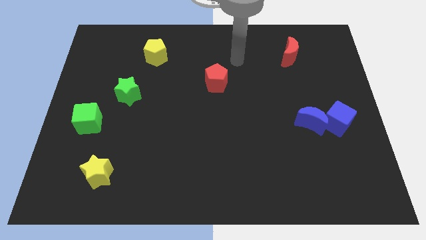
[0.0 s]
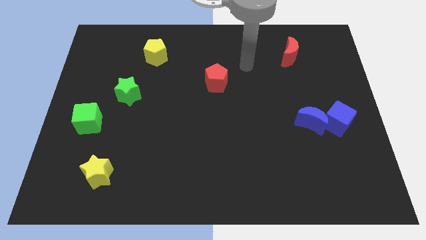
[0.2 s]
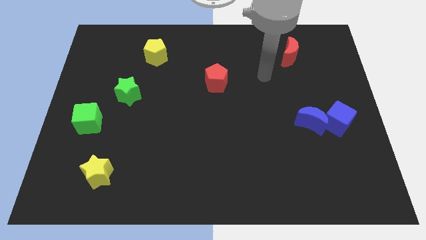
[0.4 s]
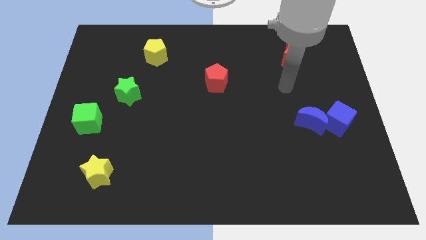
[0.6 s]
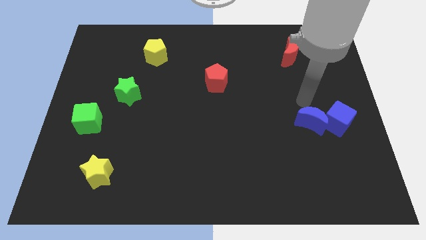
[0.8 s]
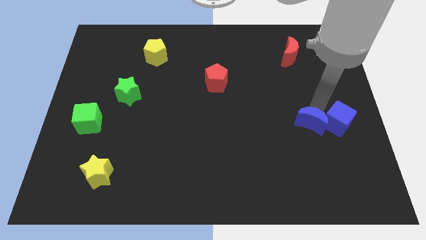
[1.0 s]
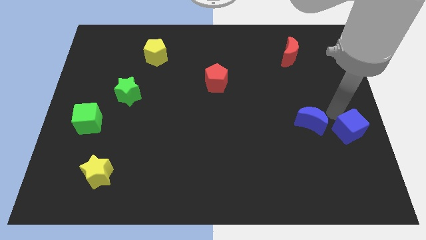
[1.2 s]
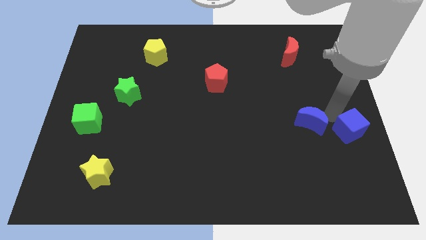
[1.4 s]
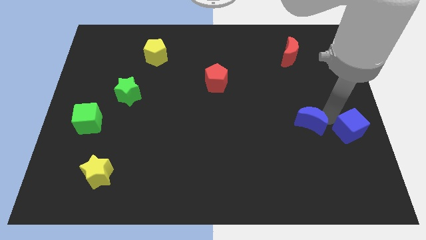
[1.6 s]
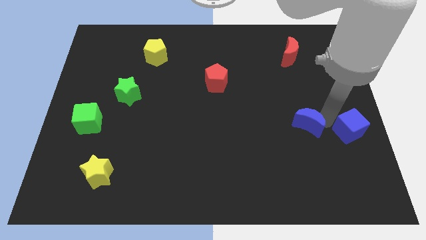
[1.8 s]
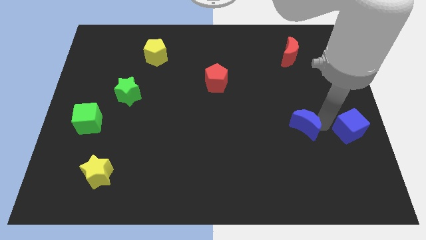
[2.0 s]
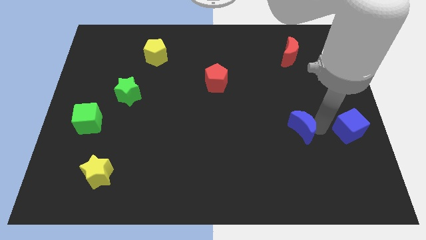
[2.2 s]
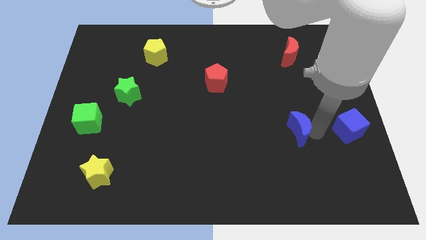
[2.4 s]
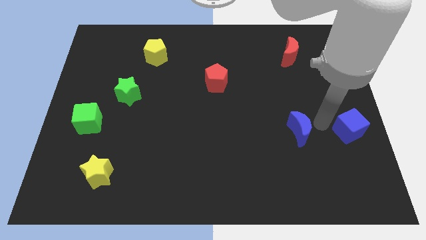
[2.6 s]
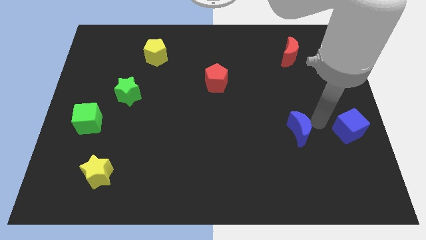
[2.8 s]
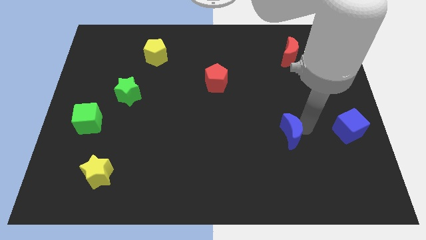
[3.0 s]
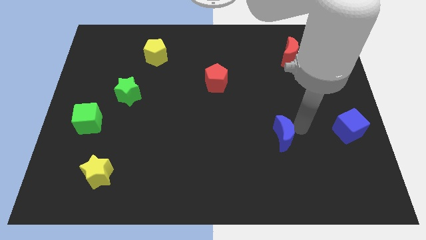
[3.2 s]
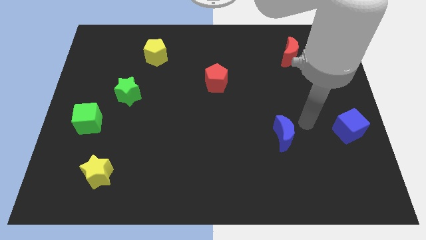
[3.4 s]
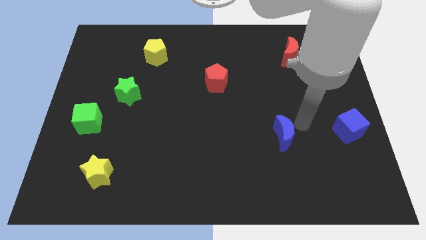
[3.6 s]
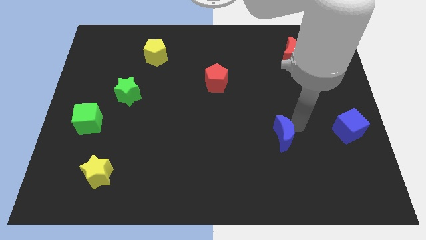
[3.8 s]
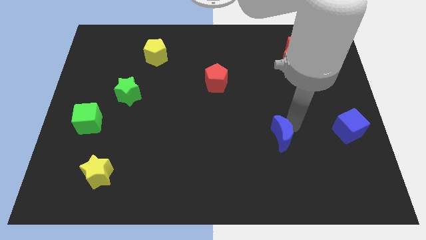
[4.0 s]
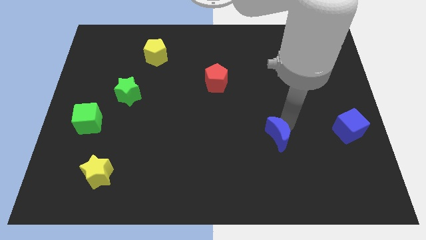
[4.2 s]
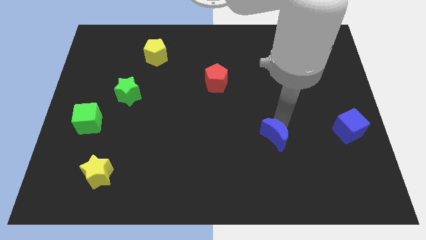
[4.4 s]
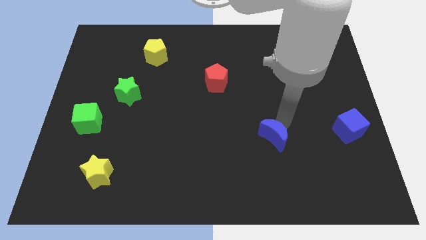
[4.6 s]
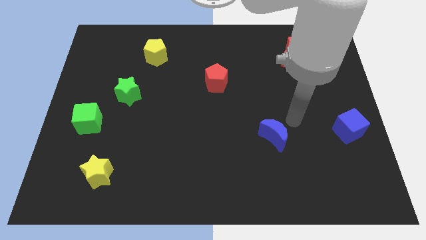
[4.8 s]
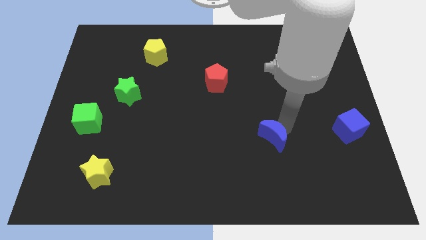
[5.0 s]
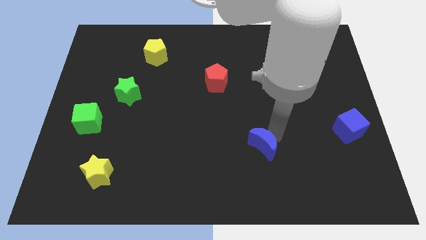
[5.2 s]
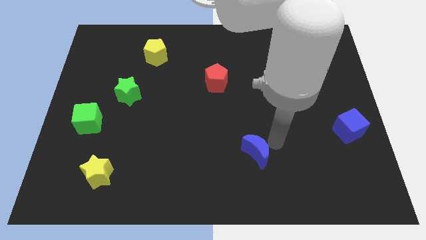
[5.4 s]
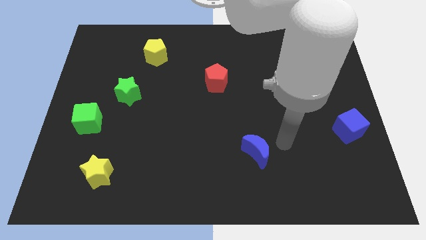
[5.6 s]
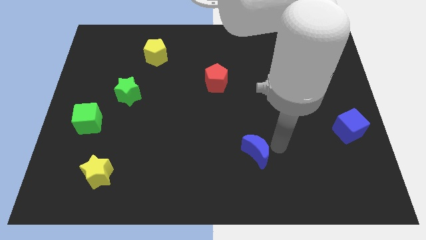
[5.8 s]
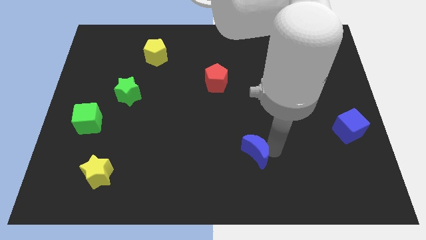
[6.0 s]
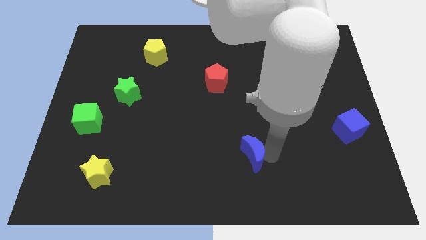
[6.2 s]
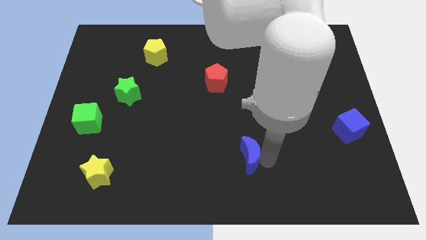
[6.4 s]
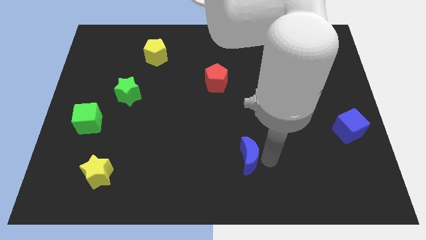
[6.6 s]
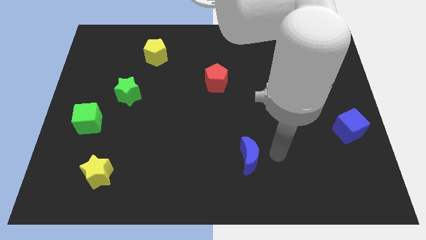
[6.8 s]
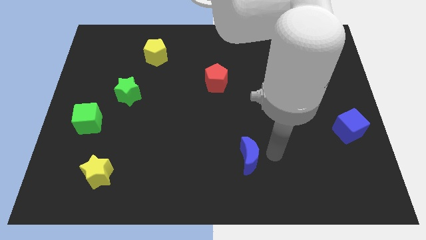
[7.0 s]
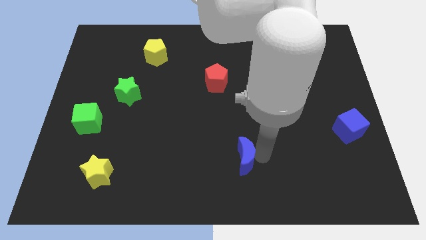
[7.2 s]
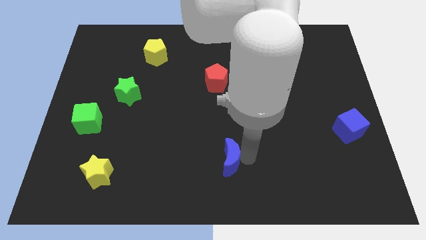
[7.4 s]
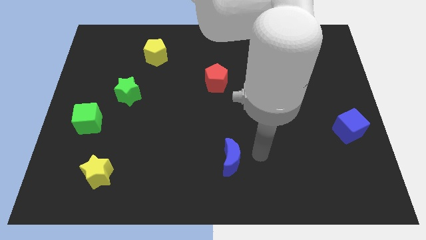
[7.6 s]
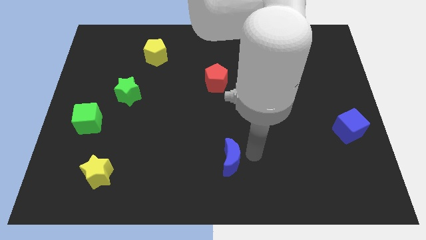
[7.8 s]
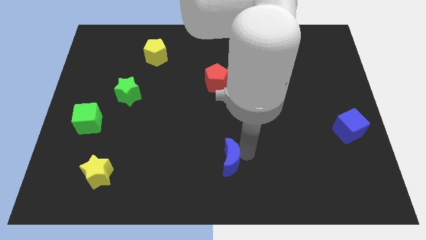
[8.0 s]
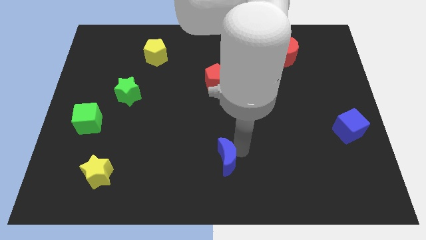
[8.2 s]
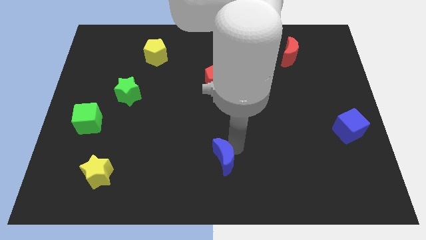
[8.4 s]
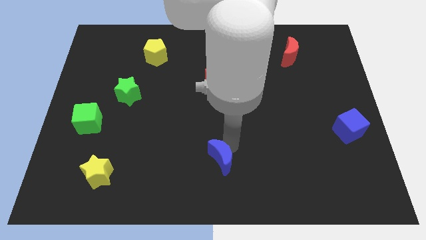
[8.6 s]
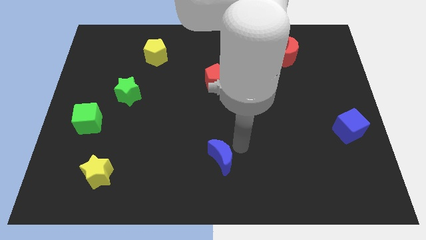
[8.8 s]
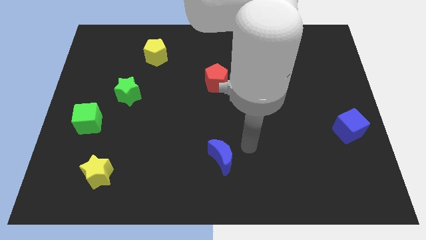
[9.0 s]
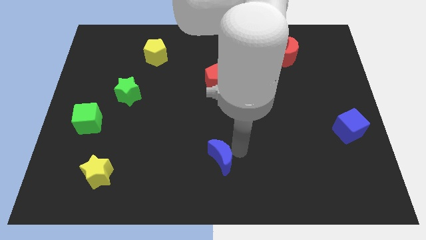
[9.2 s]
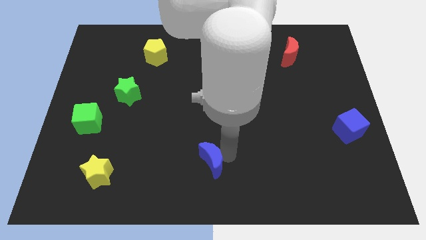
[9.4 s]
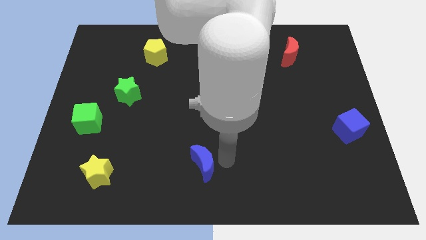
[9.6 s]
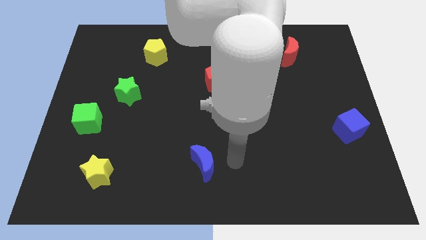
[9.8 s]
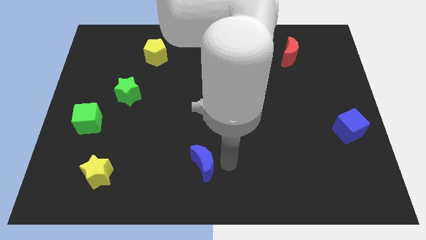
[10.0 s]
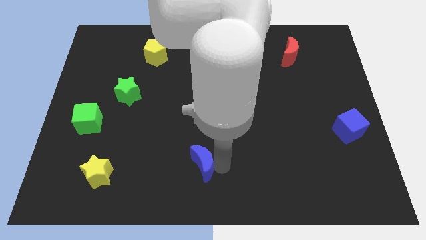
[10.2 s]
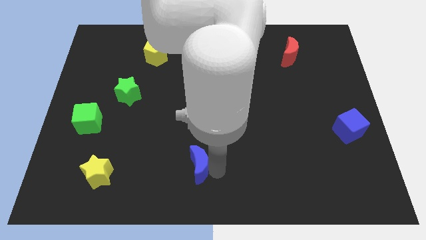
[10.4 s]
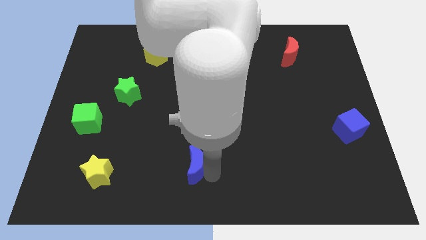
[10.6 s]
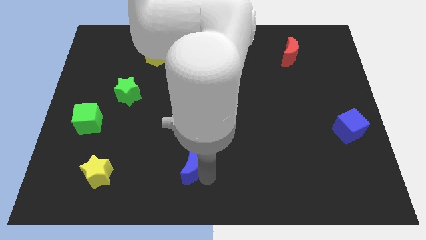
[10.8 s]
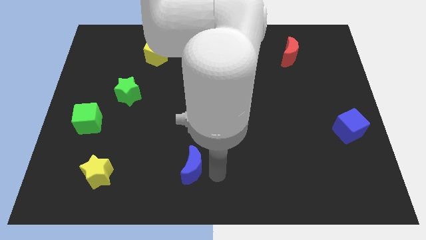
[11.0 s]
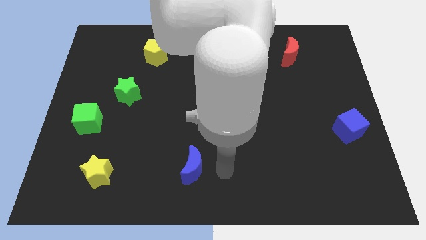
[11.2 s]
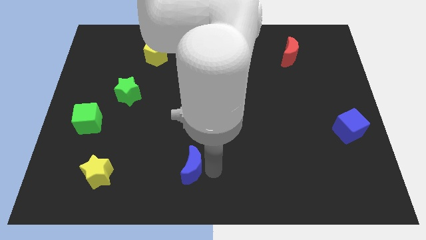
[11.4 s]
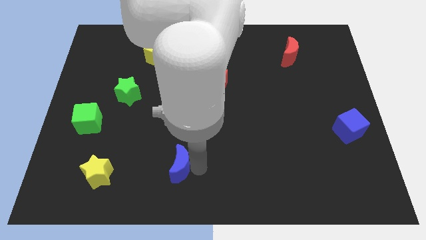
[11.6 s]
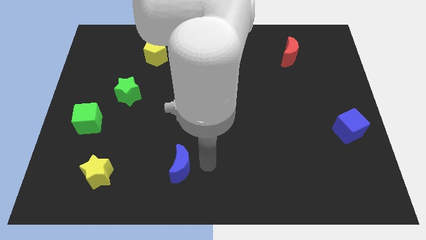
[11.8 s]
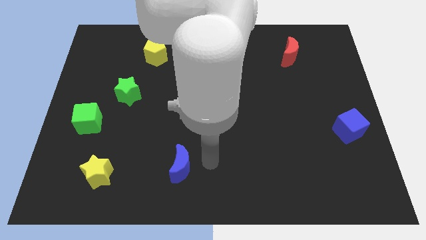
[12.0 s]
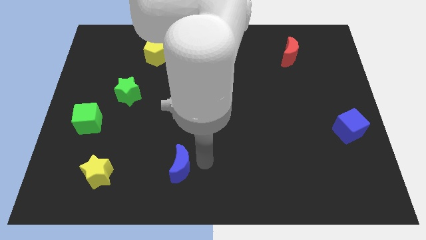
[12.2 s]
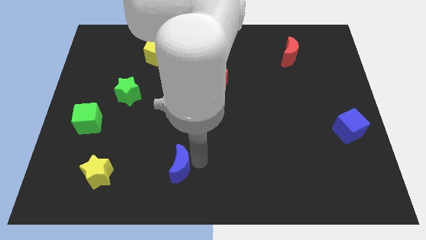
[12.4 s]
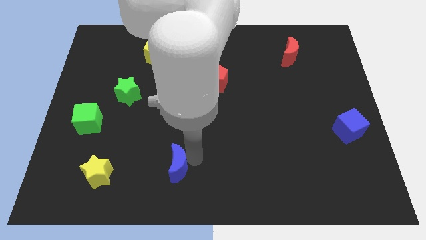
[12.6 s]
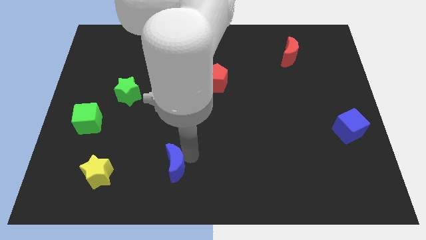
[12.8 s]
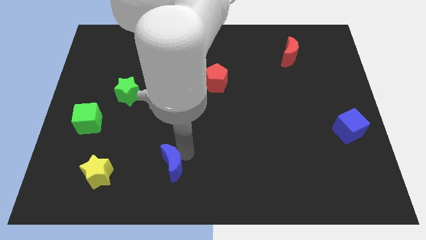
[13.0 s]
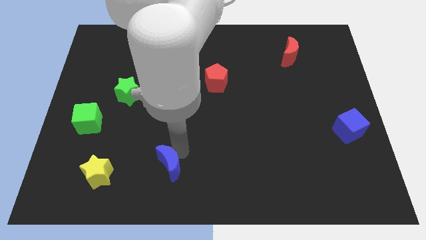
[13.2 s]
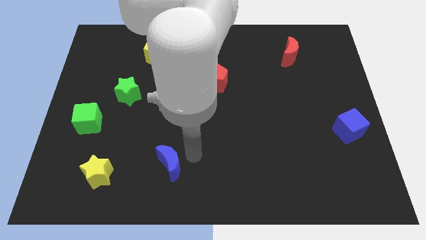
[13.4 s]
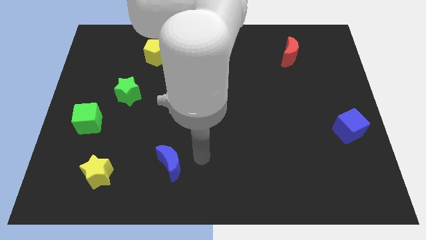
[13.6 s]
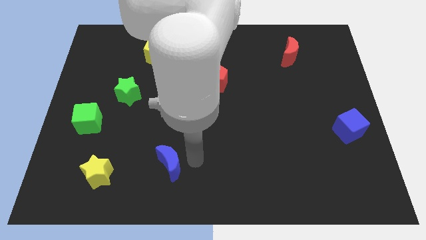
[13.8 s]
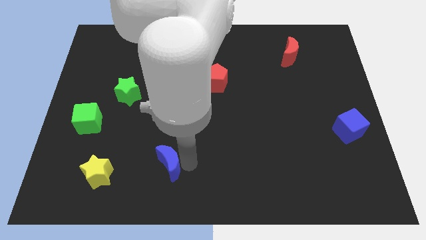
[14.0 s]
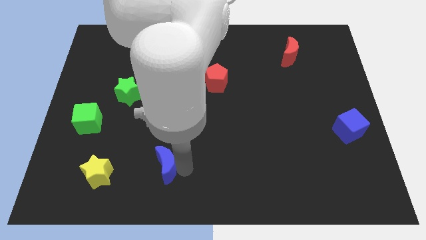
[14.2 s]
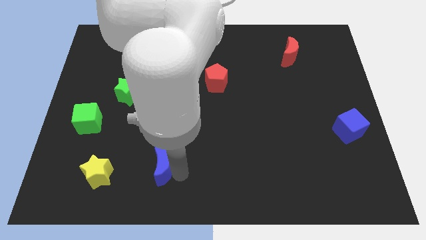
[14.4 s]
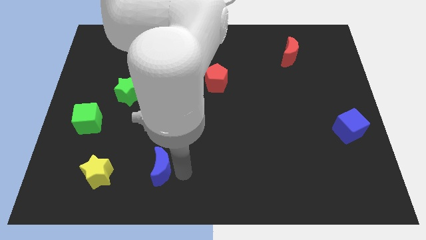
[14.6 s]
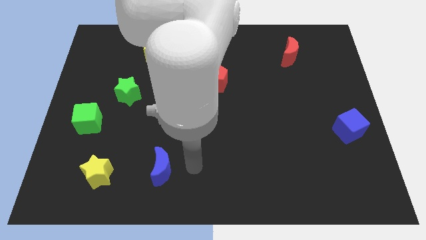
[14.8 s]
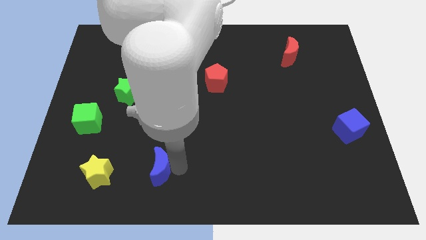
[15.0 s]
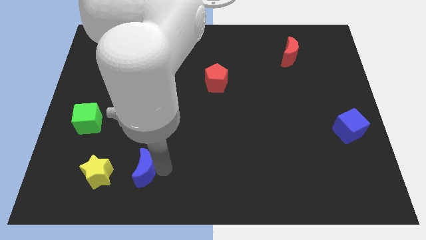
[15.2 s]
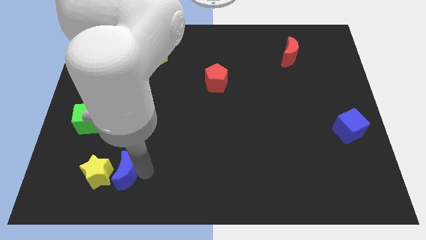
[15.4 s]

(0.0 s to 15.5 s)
slide the blue moon to the yellow star
